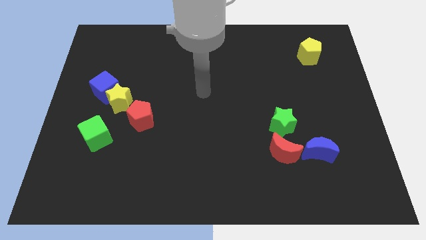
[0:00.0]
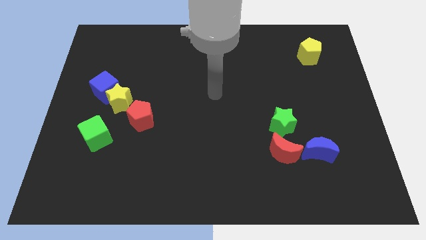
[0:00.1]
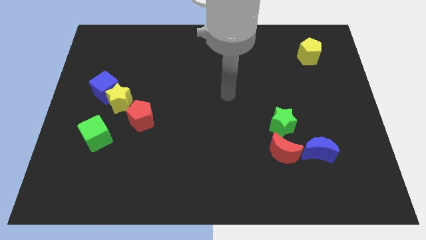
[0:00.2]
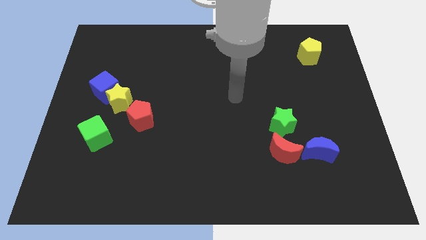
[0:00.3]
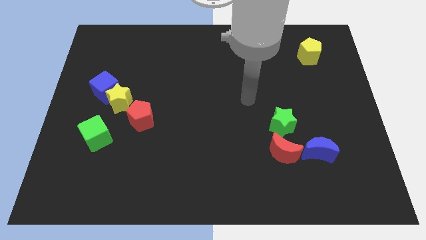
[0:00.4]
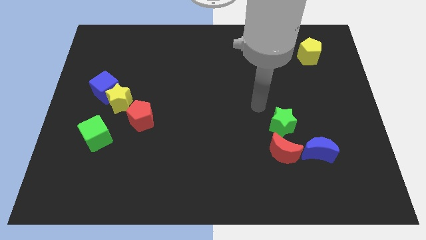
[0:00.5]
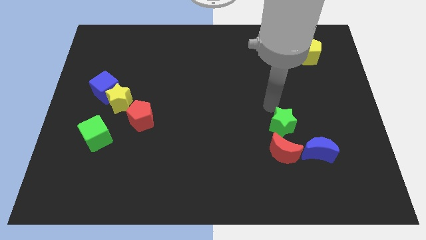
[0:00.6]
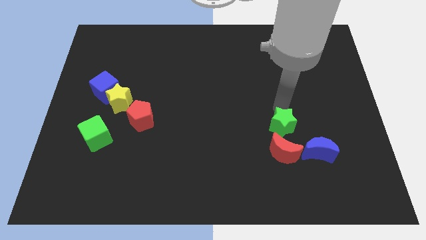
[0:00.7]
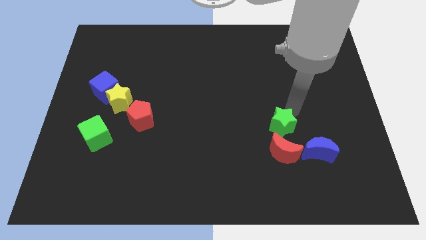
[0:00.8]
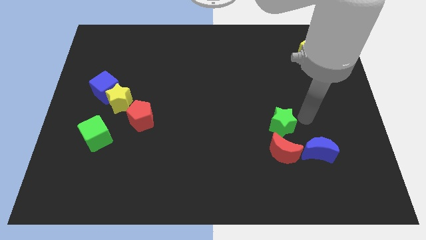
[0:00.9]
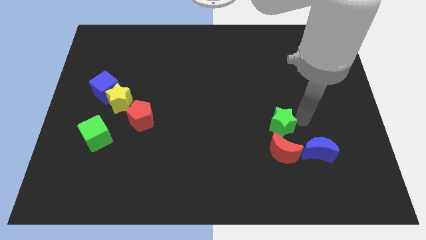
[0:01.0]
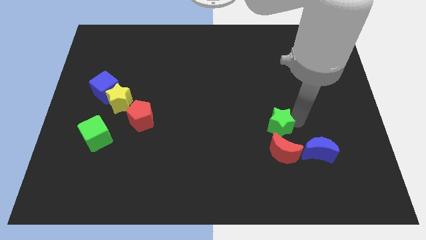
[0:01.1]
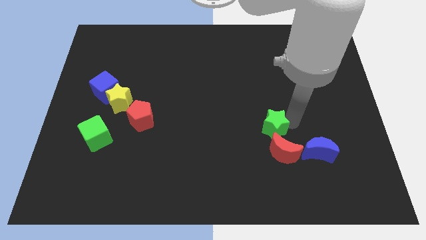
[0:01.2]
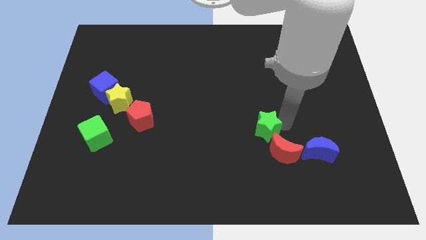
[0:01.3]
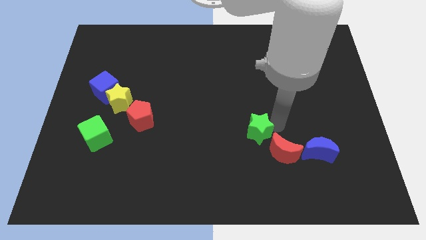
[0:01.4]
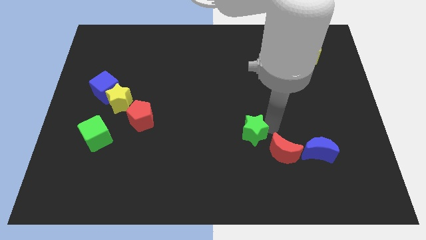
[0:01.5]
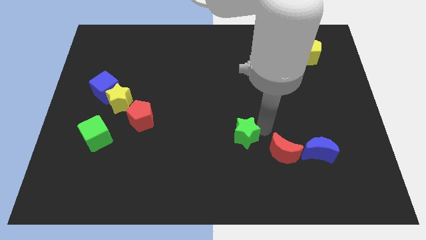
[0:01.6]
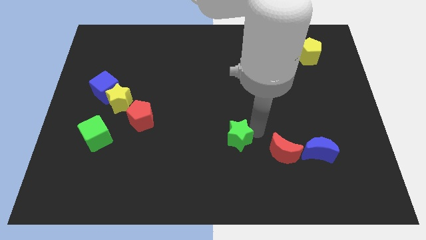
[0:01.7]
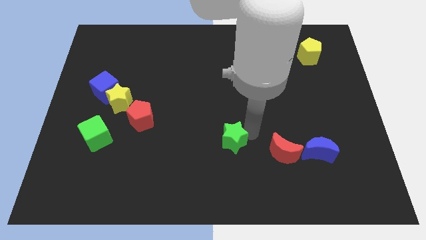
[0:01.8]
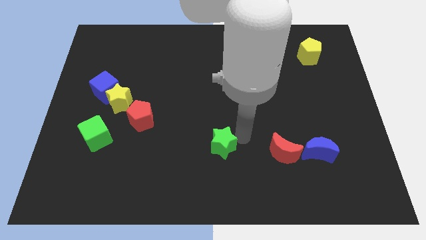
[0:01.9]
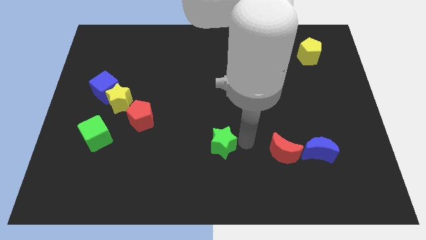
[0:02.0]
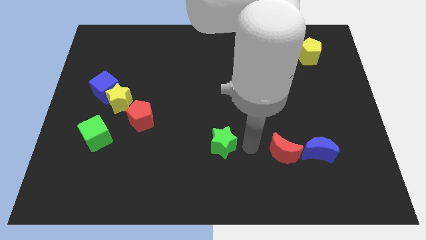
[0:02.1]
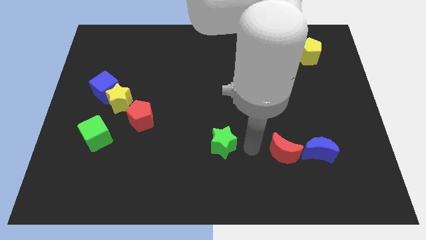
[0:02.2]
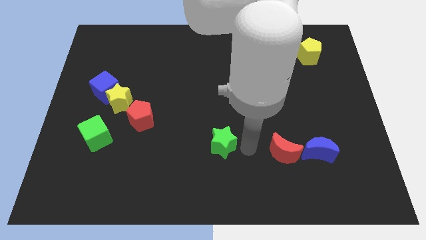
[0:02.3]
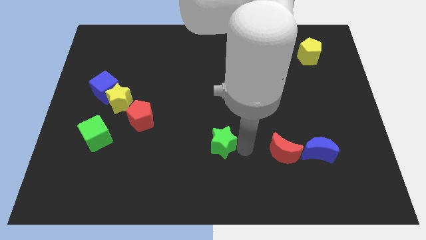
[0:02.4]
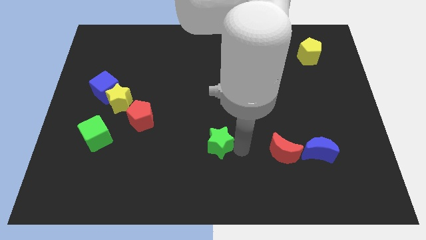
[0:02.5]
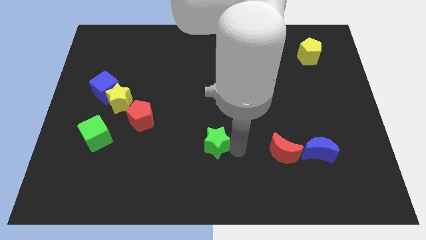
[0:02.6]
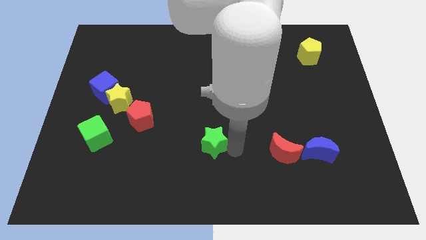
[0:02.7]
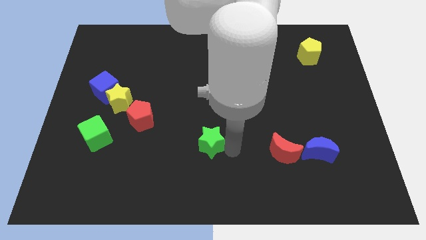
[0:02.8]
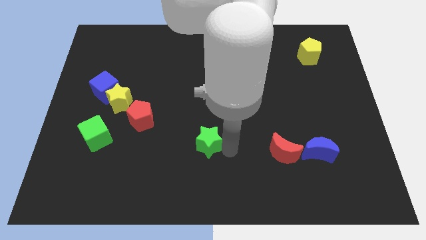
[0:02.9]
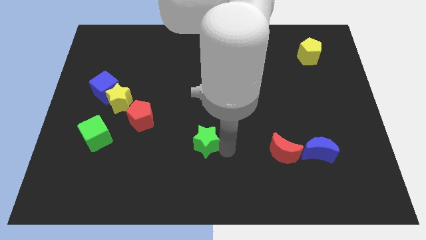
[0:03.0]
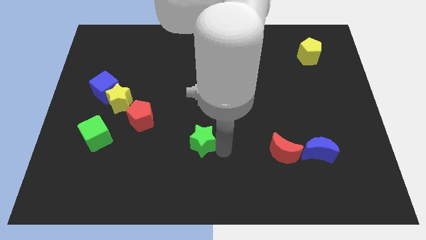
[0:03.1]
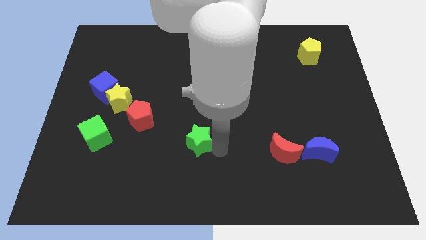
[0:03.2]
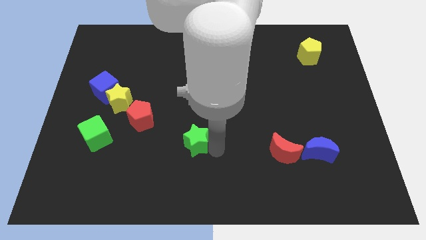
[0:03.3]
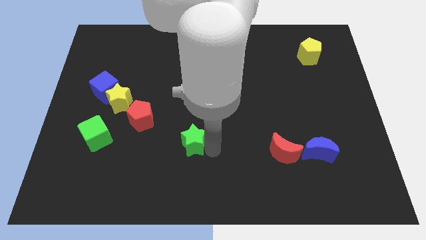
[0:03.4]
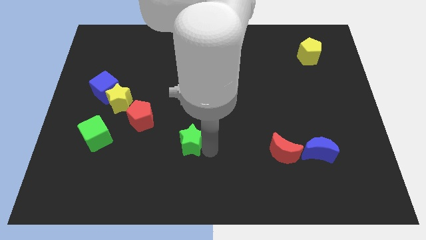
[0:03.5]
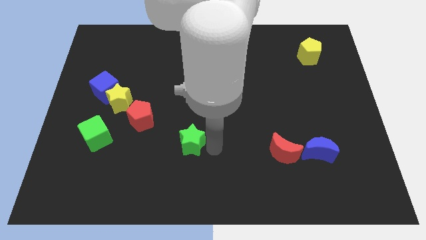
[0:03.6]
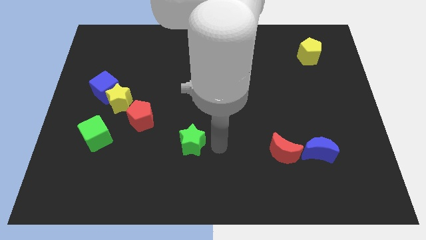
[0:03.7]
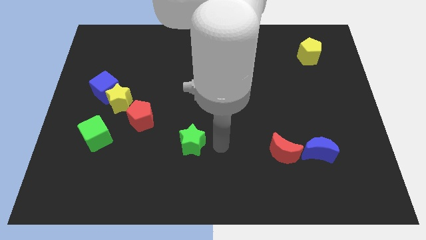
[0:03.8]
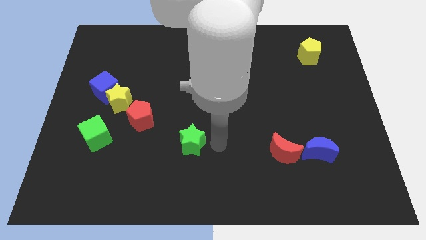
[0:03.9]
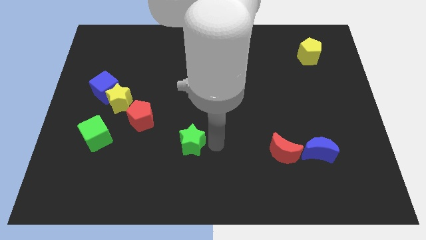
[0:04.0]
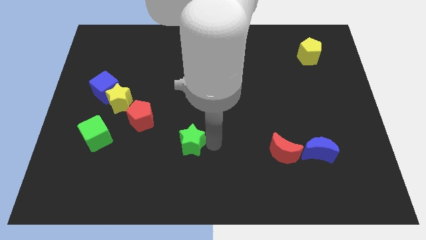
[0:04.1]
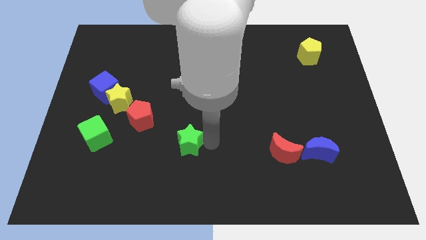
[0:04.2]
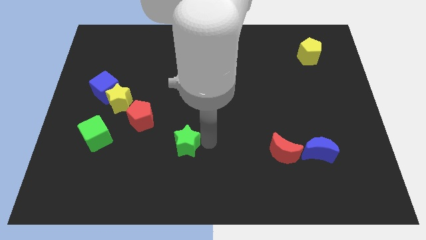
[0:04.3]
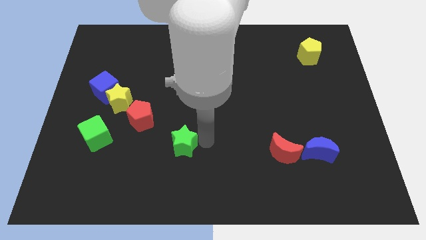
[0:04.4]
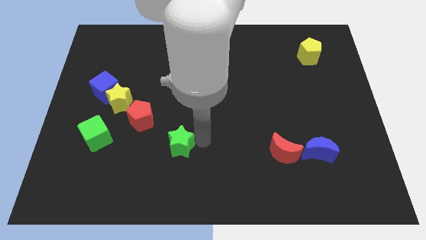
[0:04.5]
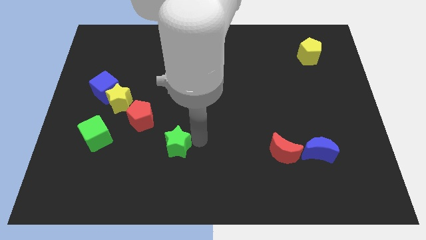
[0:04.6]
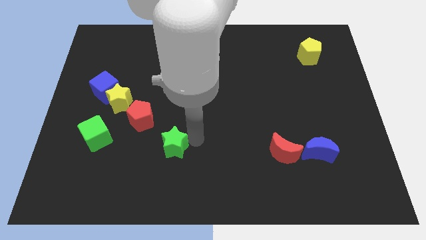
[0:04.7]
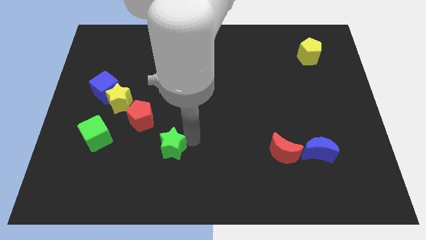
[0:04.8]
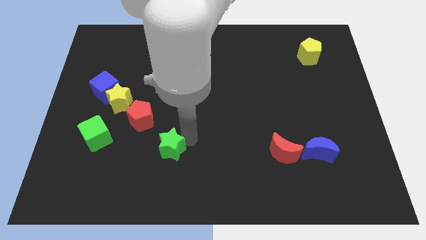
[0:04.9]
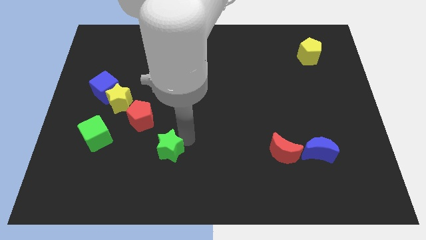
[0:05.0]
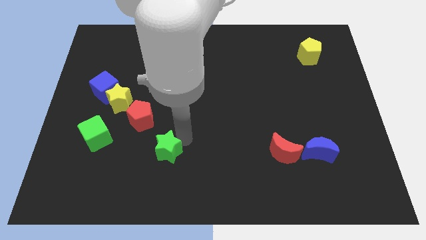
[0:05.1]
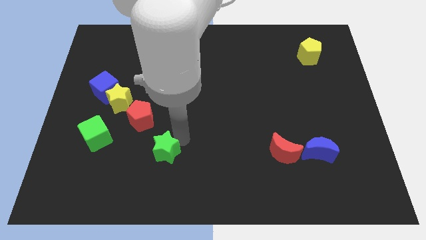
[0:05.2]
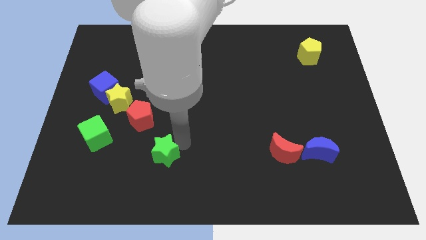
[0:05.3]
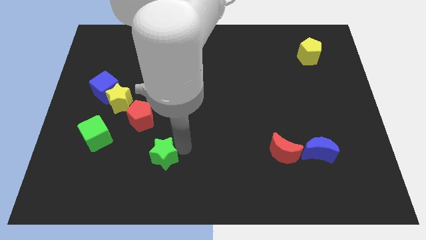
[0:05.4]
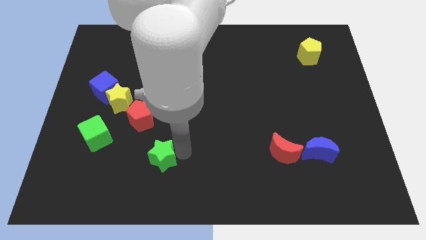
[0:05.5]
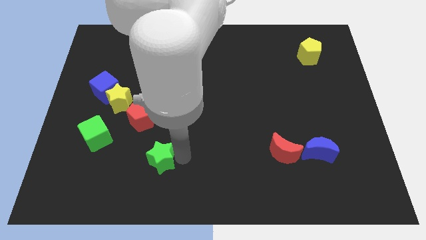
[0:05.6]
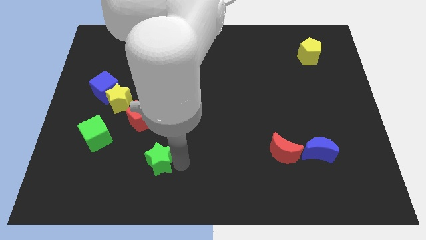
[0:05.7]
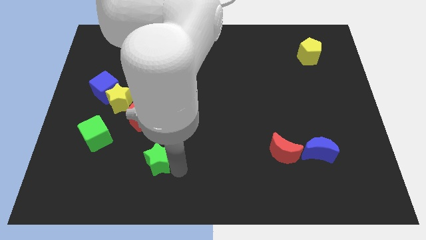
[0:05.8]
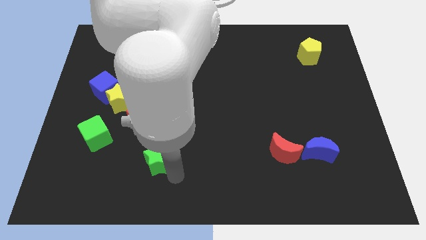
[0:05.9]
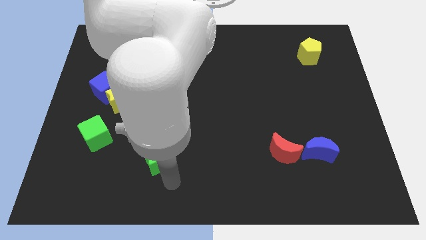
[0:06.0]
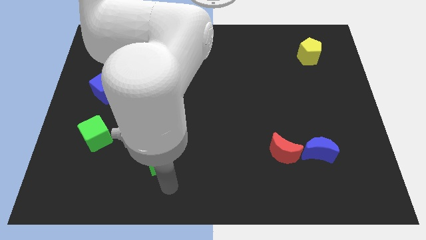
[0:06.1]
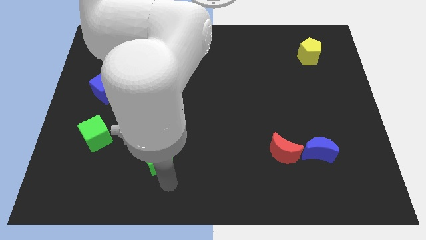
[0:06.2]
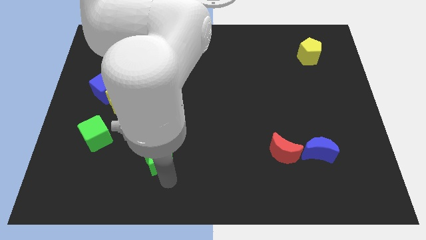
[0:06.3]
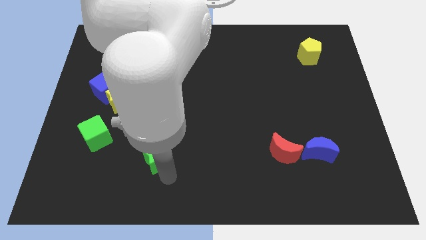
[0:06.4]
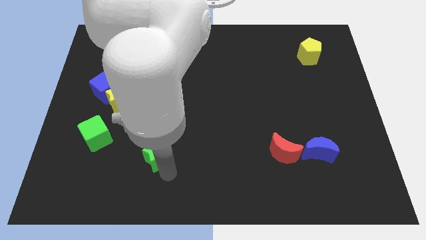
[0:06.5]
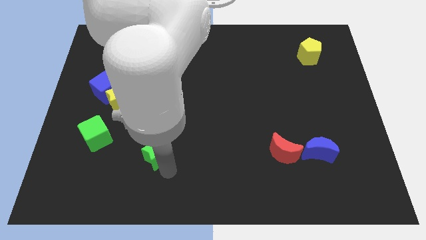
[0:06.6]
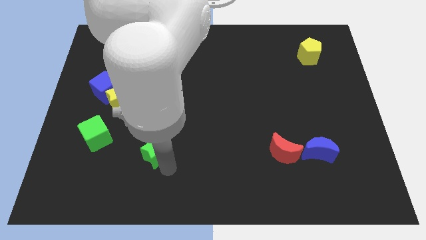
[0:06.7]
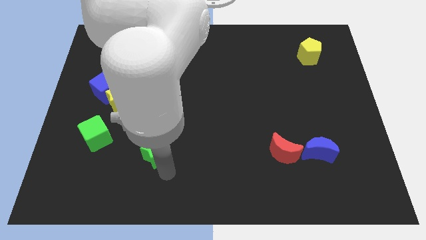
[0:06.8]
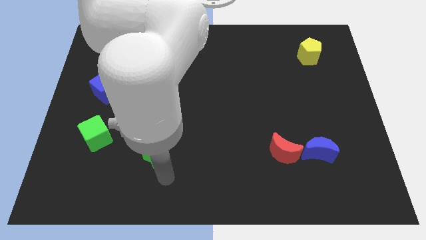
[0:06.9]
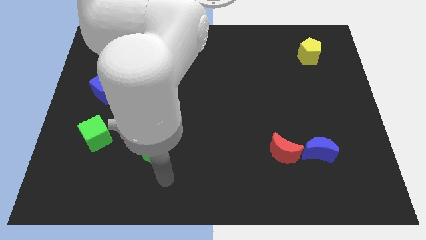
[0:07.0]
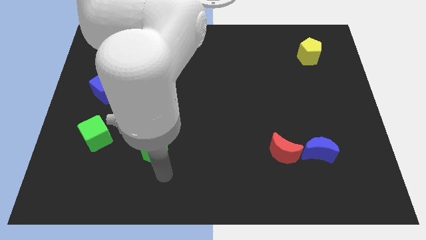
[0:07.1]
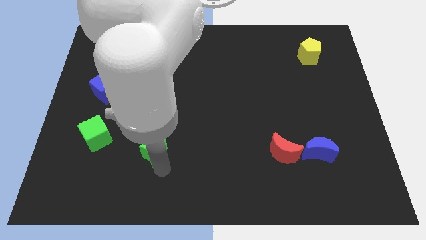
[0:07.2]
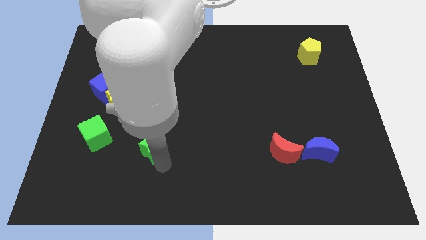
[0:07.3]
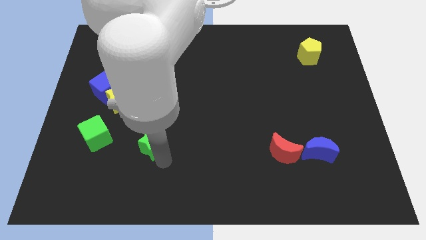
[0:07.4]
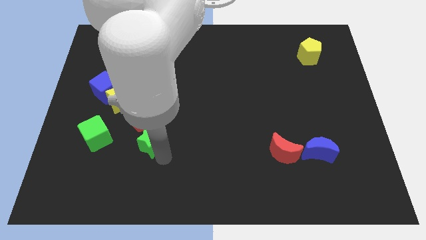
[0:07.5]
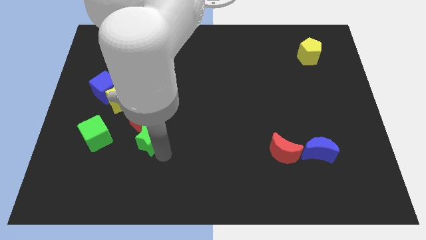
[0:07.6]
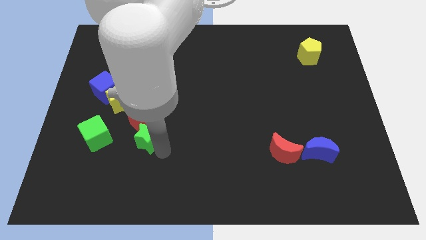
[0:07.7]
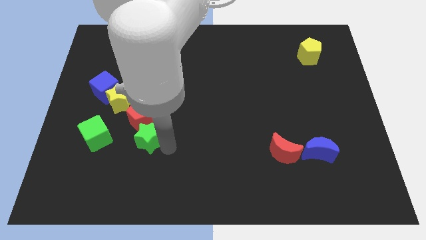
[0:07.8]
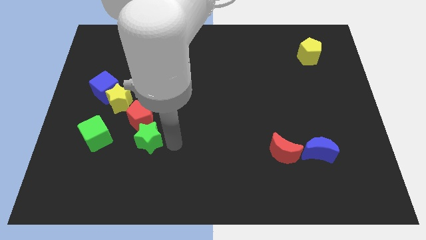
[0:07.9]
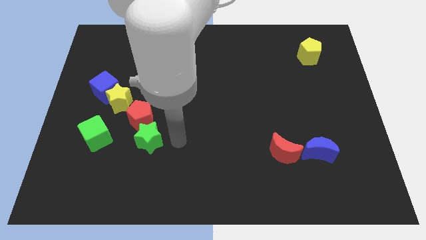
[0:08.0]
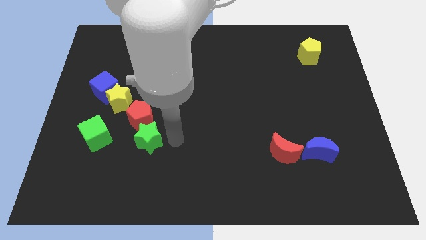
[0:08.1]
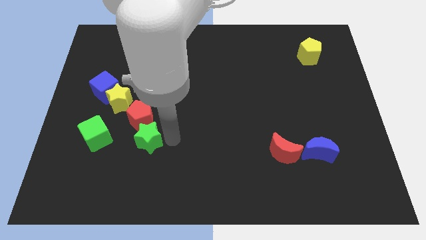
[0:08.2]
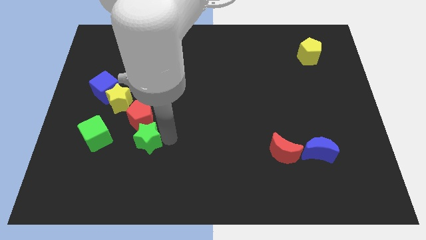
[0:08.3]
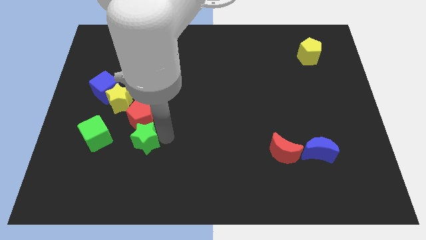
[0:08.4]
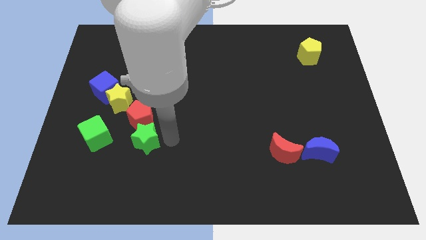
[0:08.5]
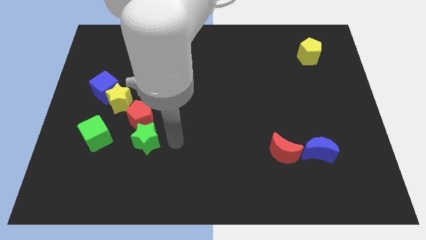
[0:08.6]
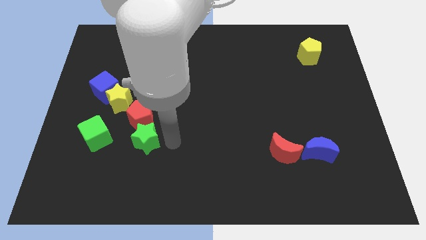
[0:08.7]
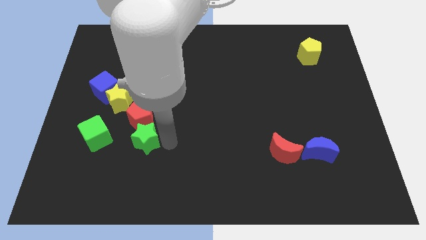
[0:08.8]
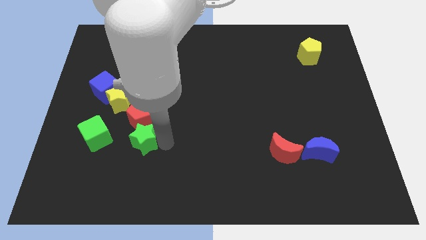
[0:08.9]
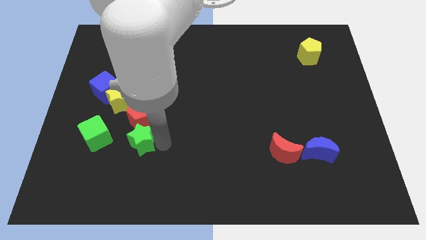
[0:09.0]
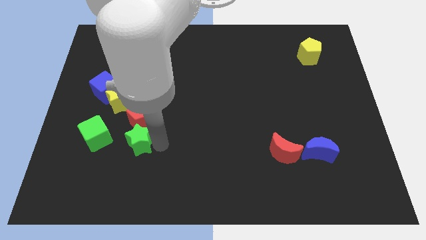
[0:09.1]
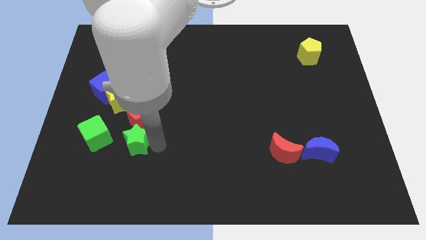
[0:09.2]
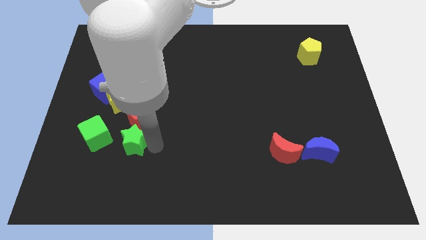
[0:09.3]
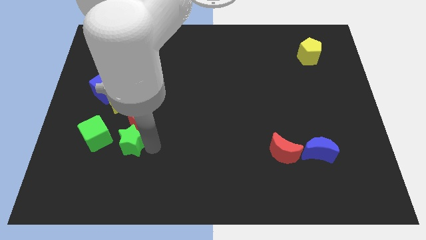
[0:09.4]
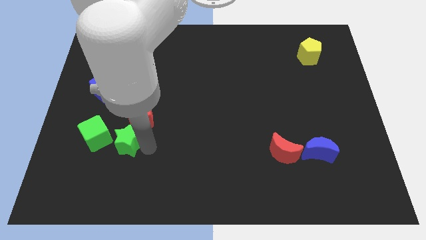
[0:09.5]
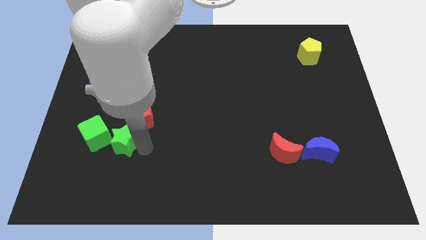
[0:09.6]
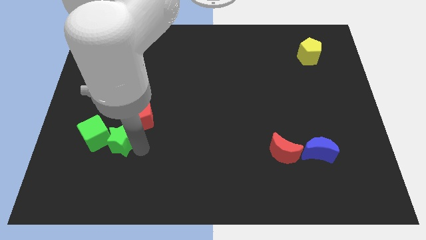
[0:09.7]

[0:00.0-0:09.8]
push the green star towards the green cube
